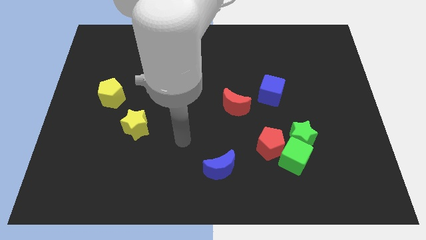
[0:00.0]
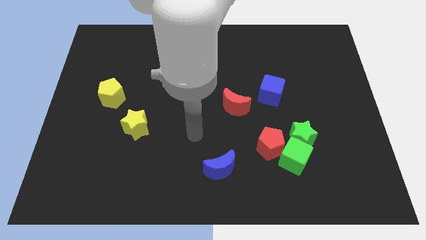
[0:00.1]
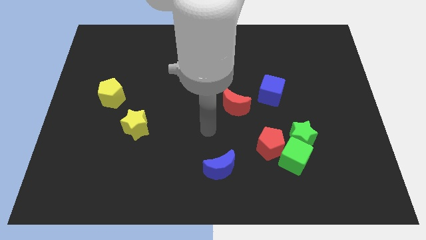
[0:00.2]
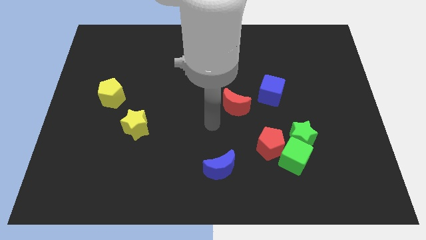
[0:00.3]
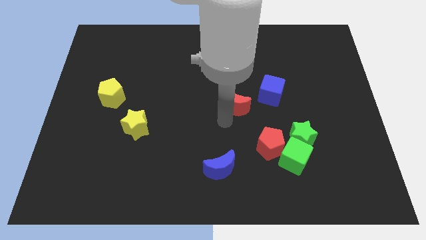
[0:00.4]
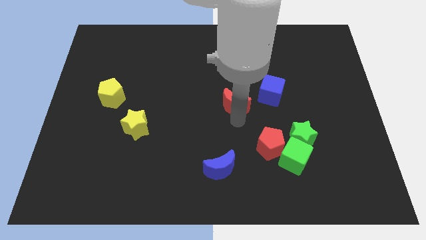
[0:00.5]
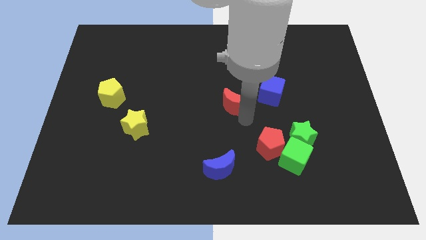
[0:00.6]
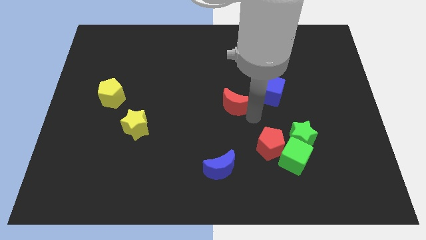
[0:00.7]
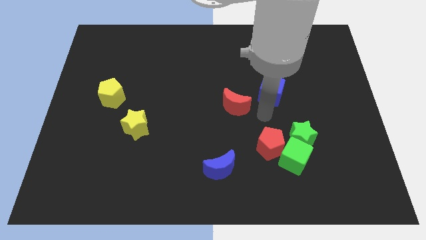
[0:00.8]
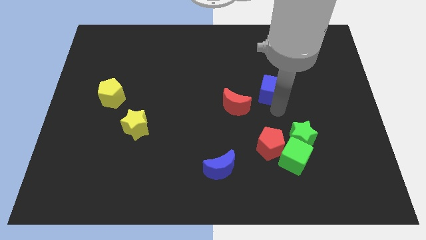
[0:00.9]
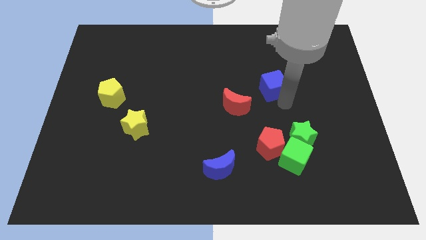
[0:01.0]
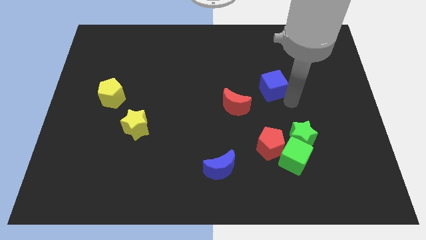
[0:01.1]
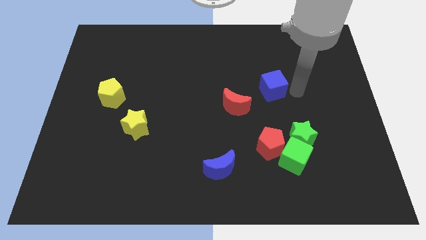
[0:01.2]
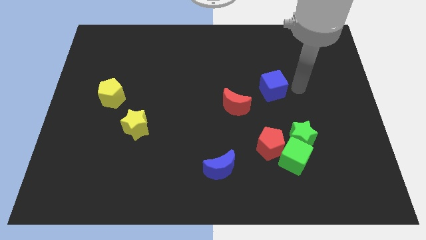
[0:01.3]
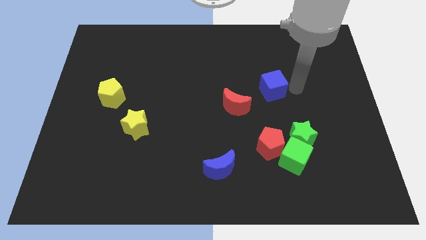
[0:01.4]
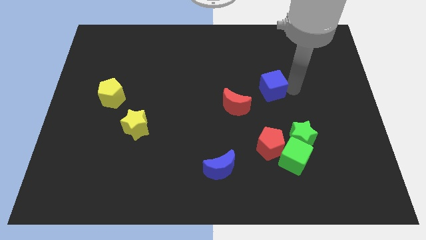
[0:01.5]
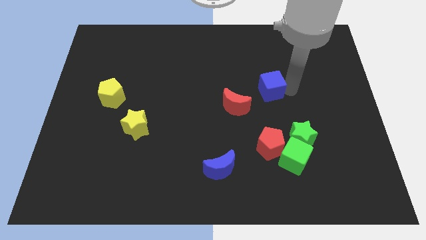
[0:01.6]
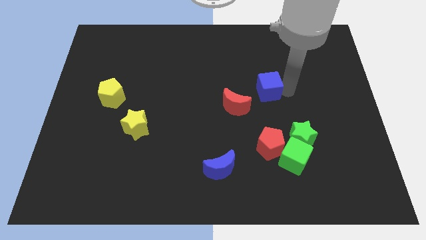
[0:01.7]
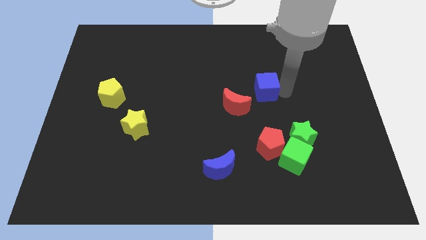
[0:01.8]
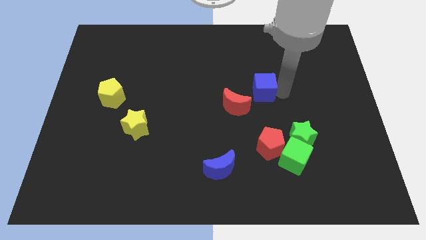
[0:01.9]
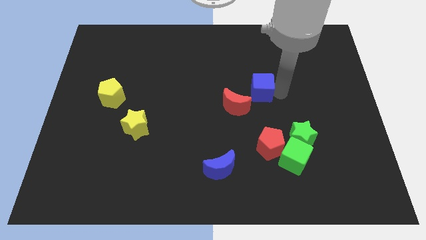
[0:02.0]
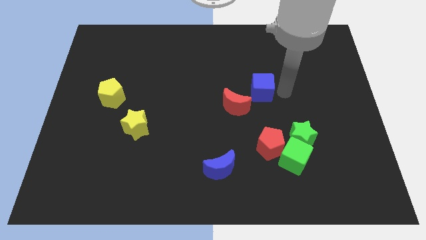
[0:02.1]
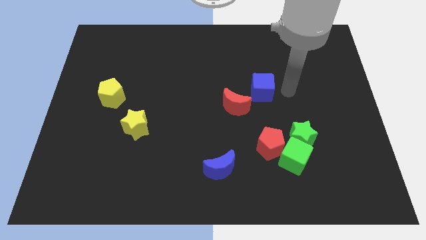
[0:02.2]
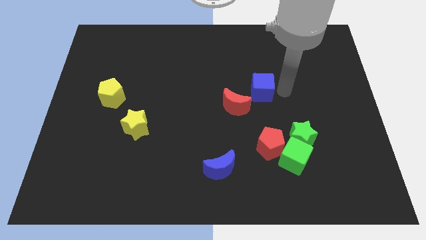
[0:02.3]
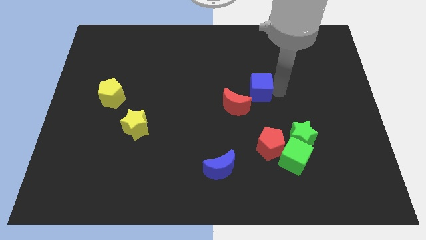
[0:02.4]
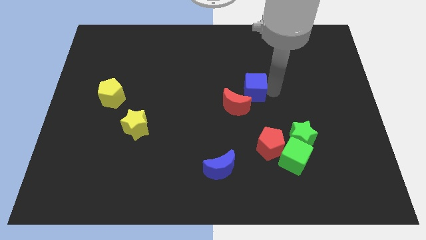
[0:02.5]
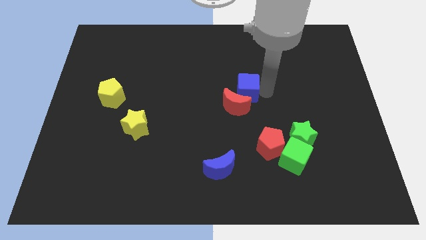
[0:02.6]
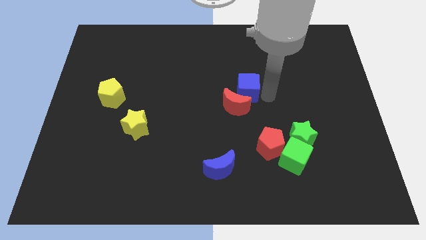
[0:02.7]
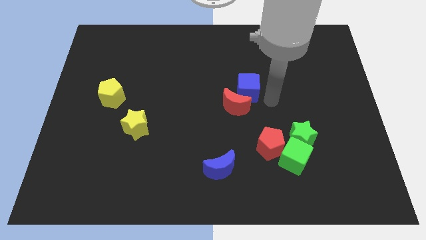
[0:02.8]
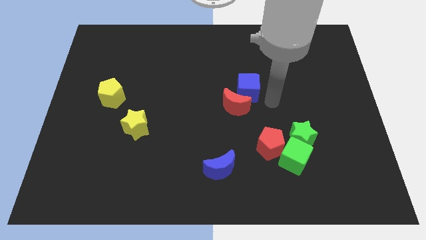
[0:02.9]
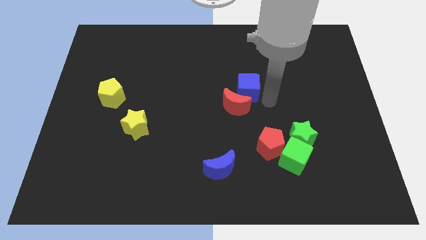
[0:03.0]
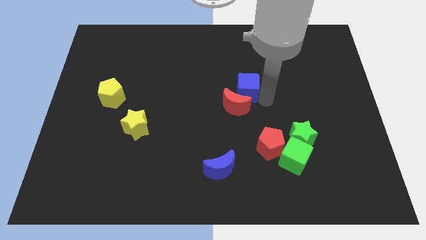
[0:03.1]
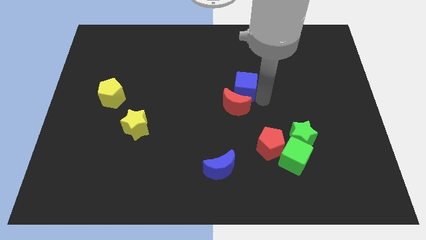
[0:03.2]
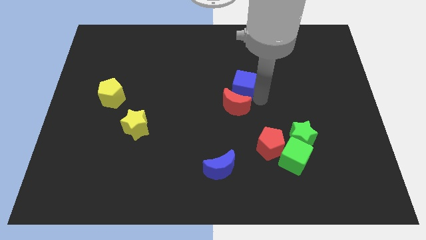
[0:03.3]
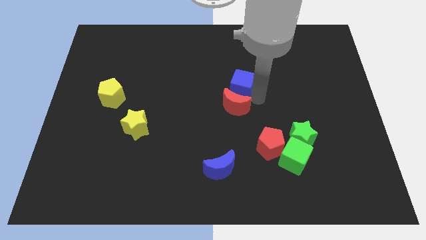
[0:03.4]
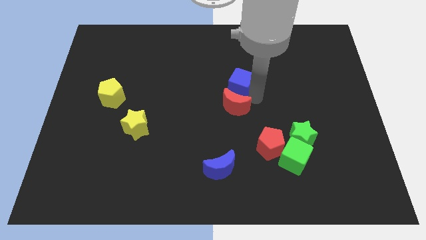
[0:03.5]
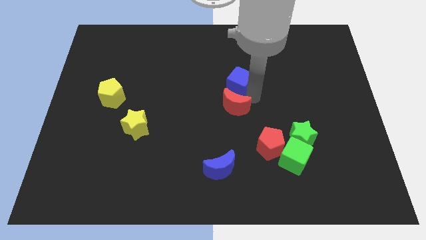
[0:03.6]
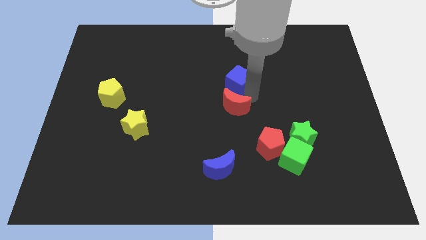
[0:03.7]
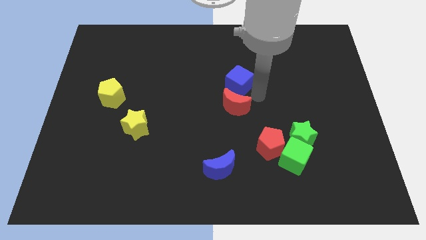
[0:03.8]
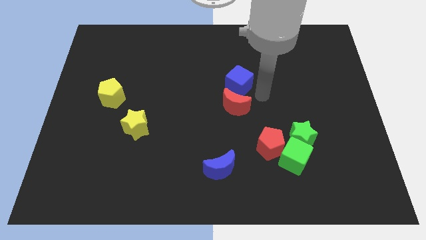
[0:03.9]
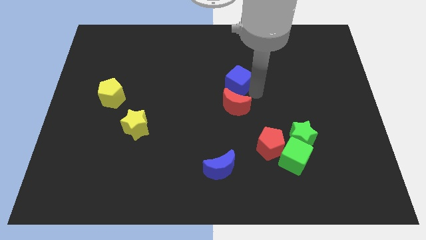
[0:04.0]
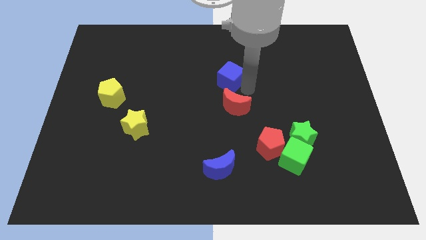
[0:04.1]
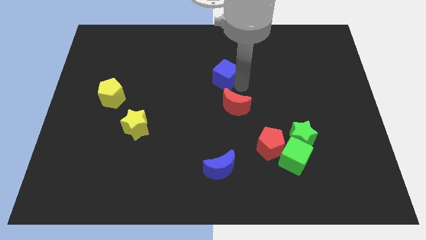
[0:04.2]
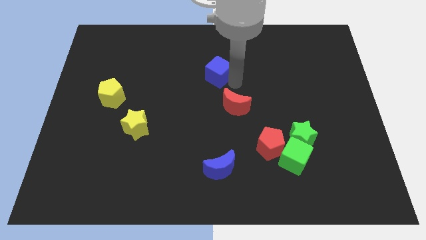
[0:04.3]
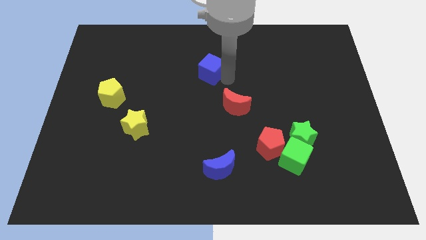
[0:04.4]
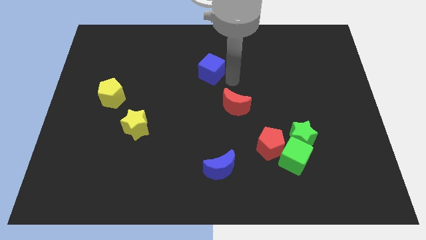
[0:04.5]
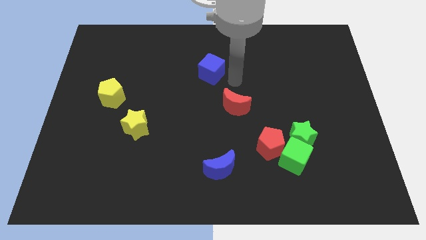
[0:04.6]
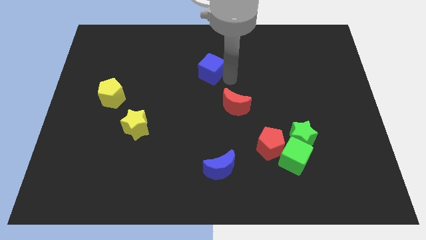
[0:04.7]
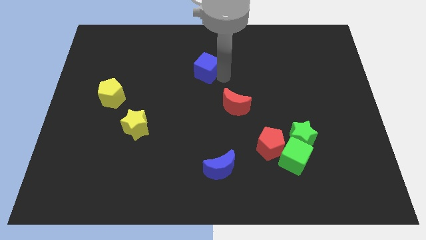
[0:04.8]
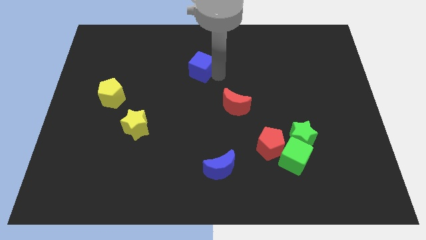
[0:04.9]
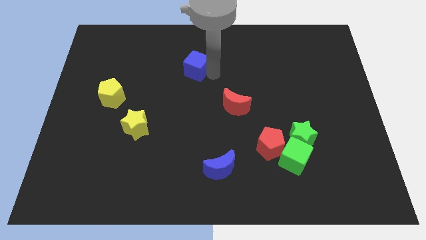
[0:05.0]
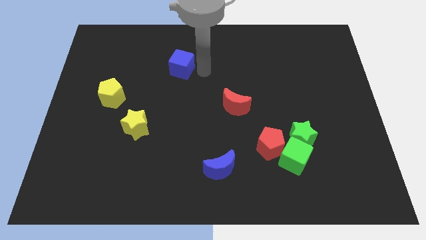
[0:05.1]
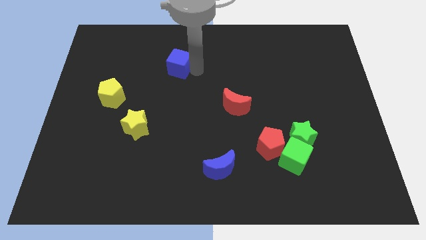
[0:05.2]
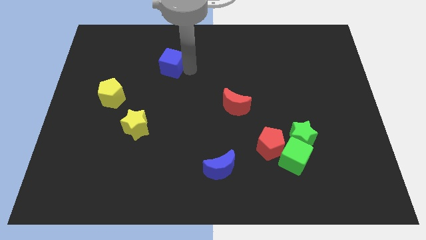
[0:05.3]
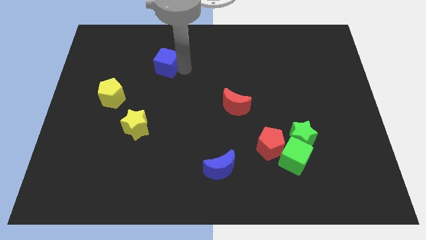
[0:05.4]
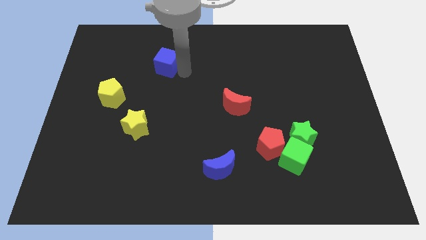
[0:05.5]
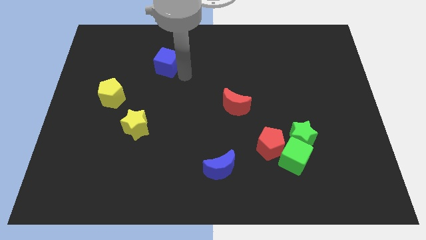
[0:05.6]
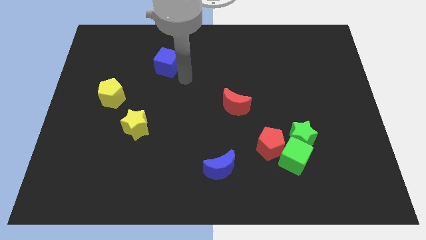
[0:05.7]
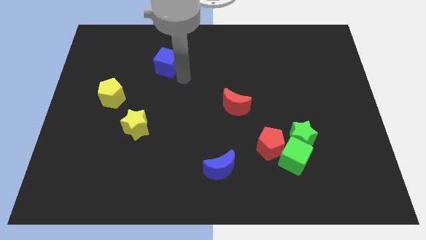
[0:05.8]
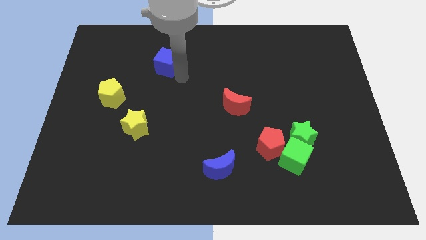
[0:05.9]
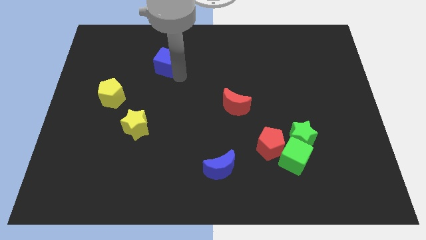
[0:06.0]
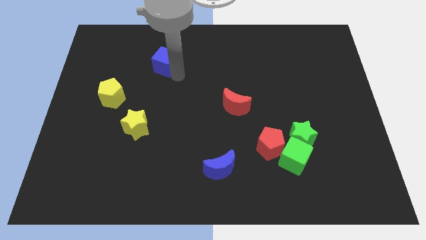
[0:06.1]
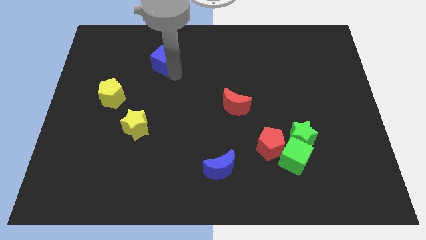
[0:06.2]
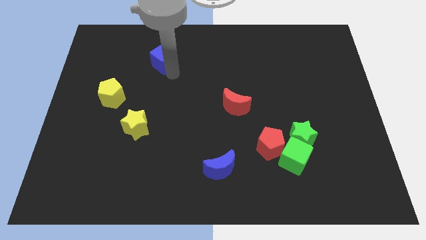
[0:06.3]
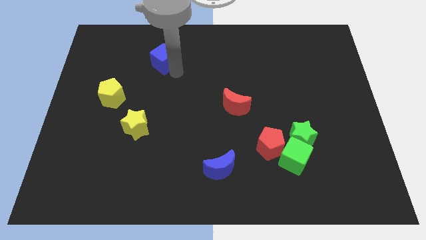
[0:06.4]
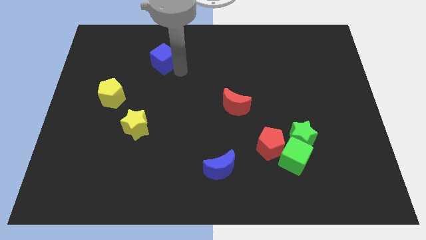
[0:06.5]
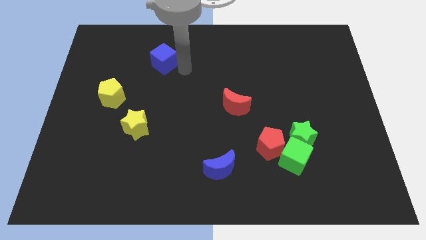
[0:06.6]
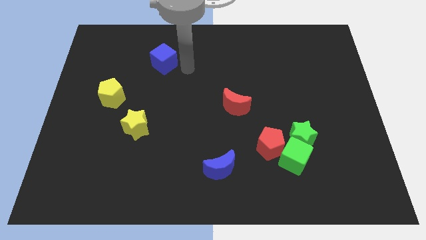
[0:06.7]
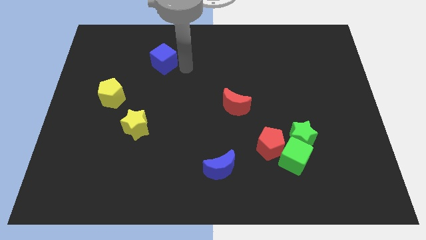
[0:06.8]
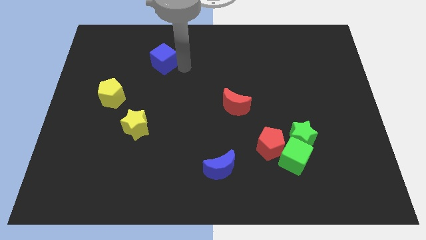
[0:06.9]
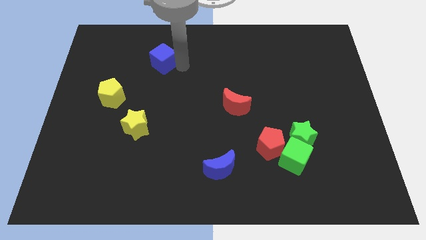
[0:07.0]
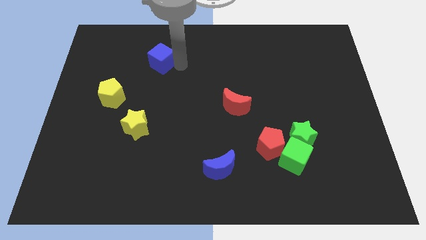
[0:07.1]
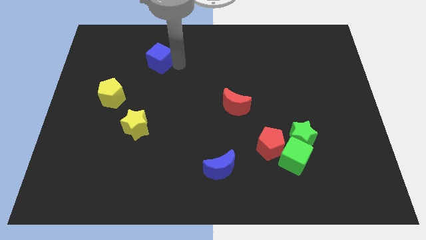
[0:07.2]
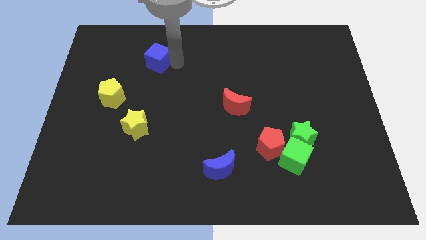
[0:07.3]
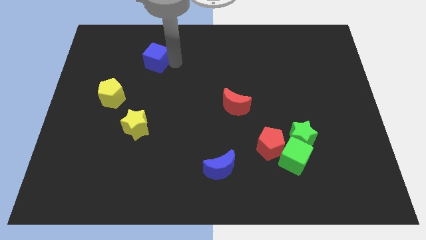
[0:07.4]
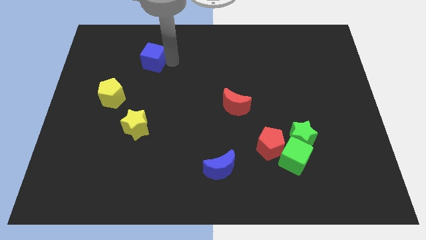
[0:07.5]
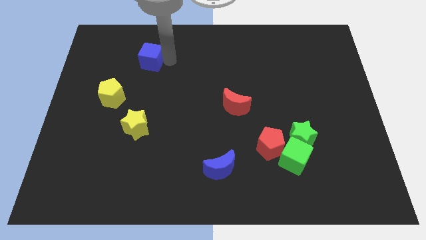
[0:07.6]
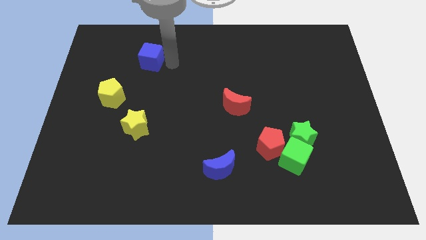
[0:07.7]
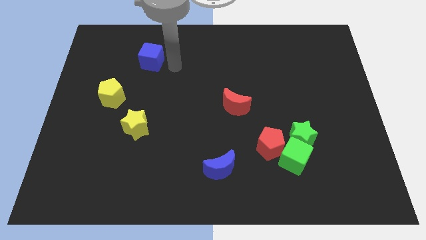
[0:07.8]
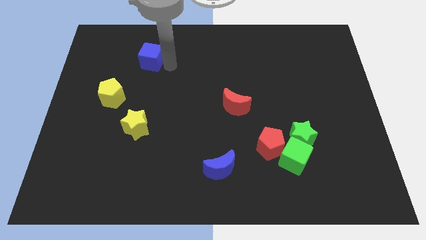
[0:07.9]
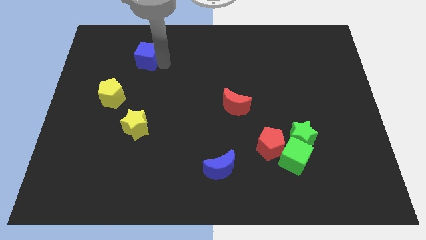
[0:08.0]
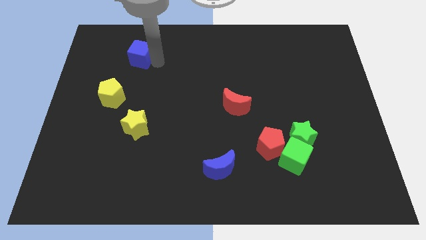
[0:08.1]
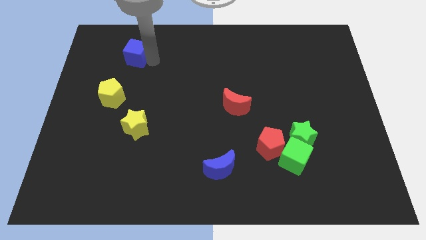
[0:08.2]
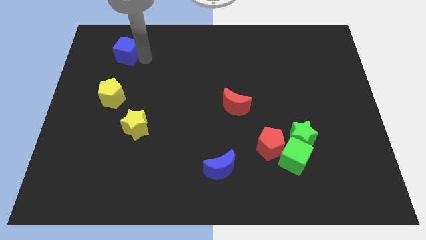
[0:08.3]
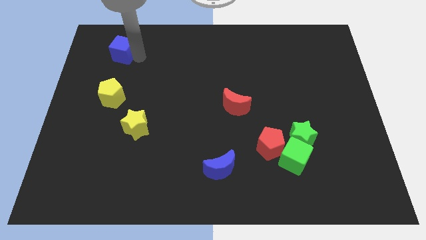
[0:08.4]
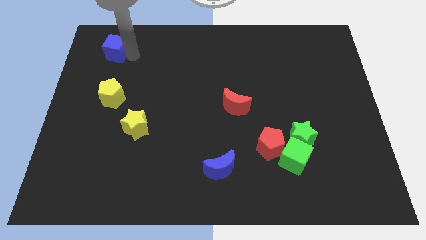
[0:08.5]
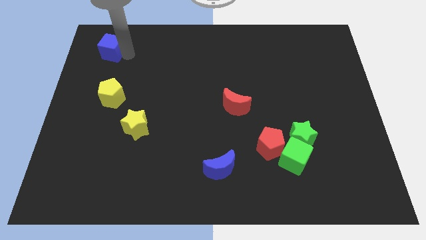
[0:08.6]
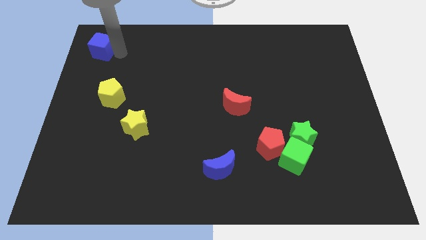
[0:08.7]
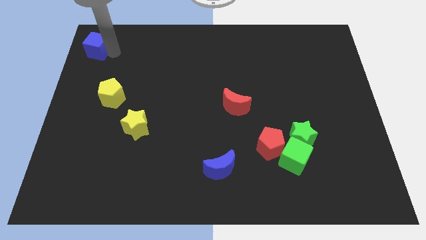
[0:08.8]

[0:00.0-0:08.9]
push the blue cube to the top left of the board
